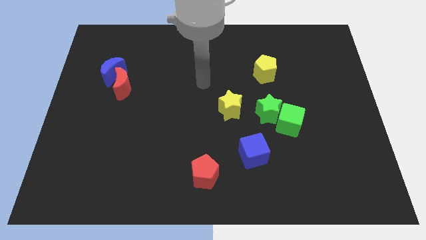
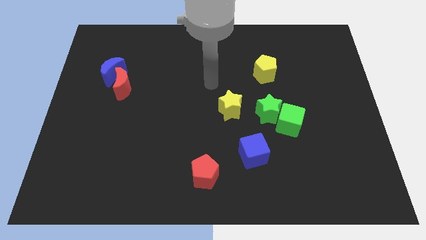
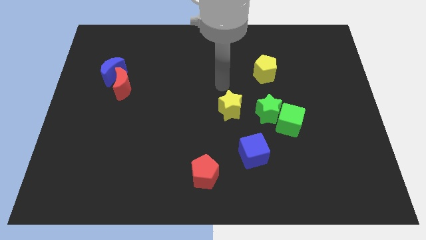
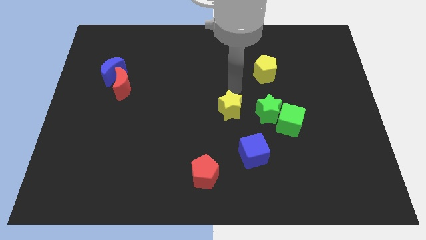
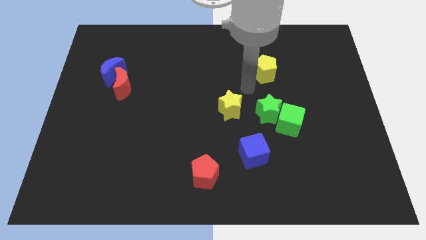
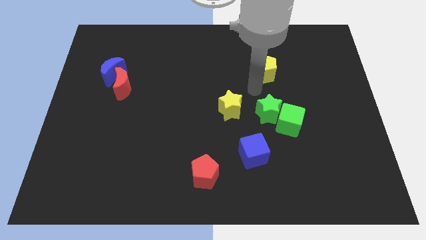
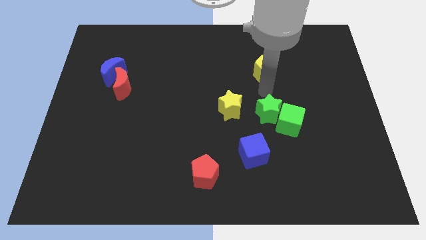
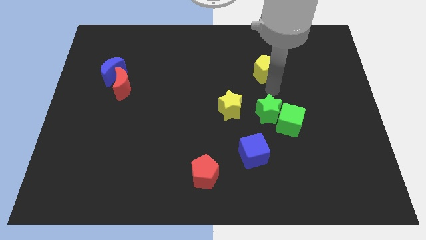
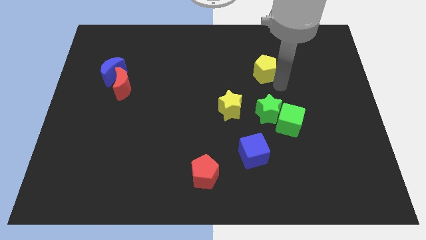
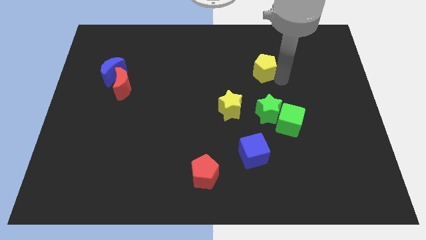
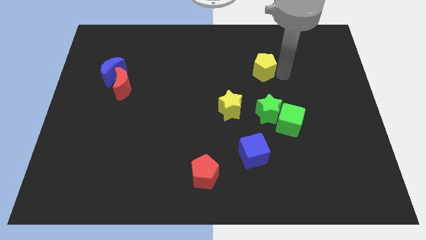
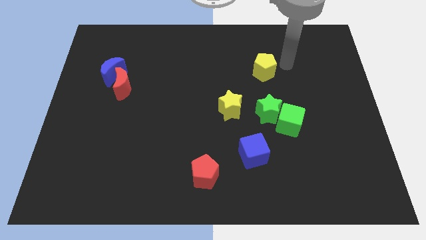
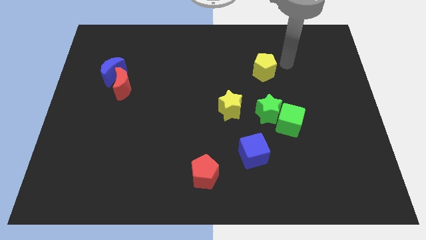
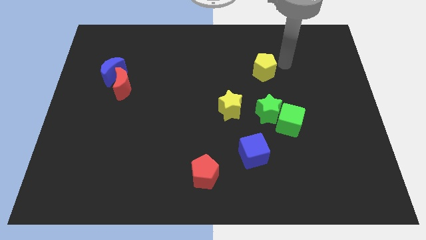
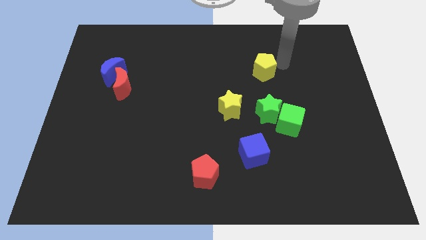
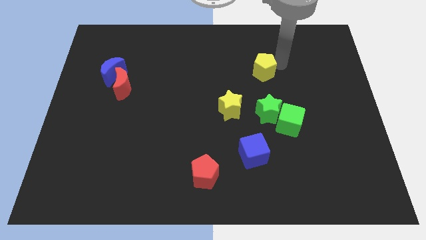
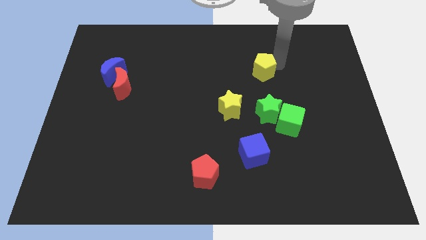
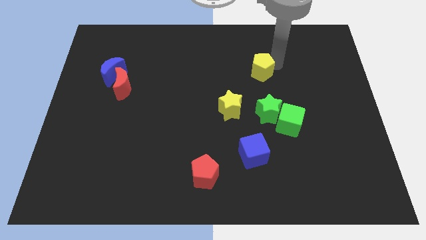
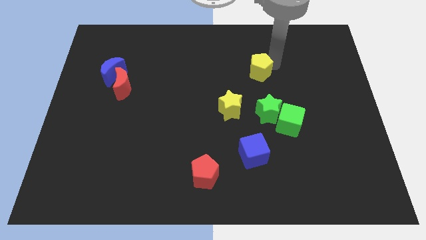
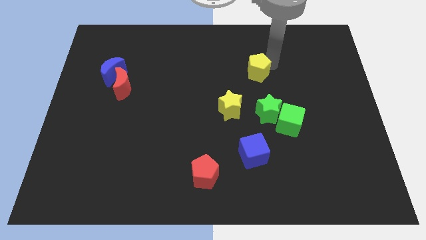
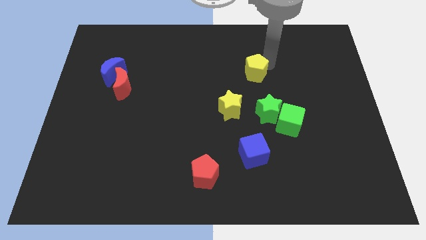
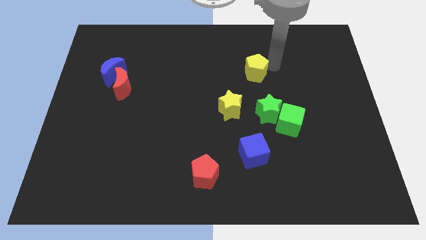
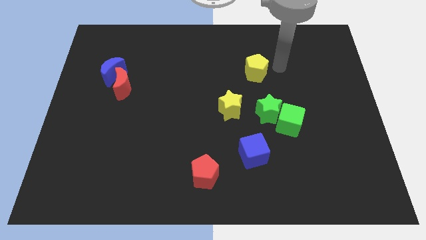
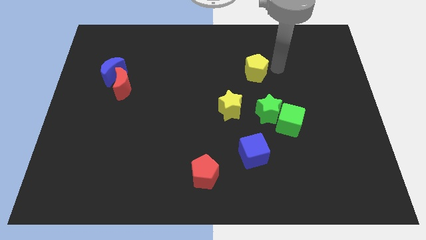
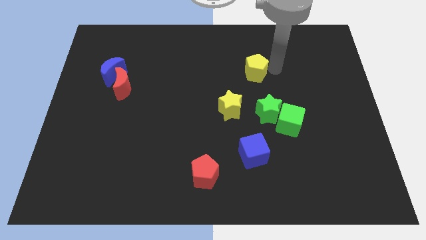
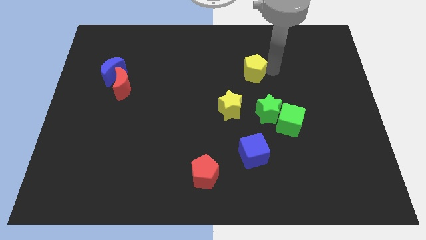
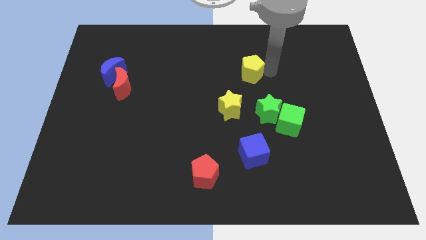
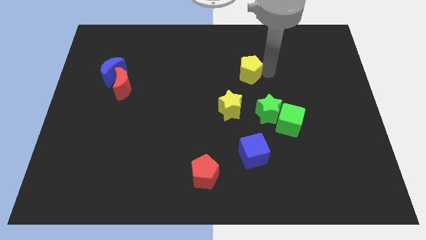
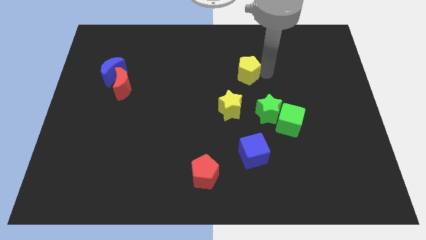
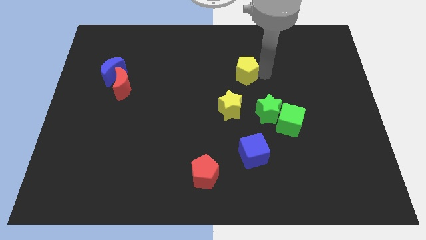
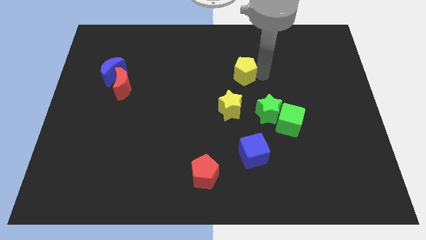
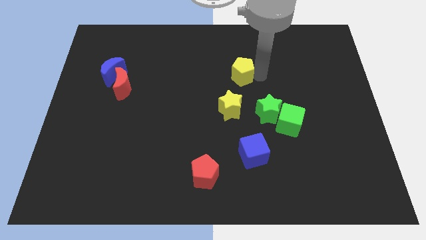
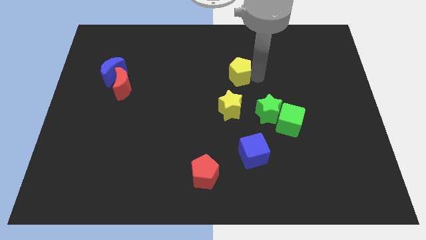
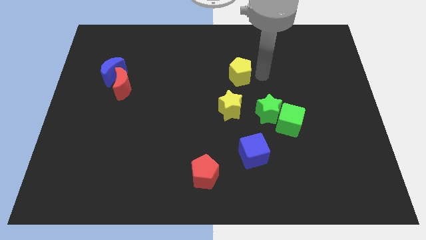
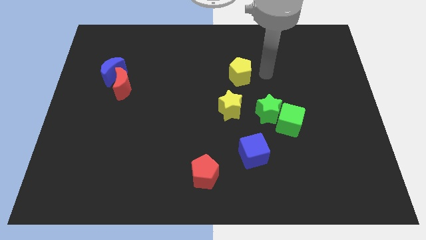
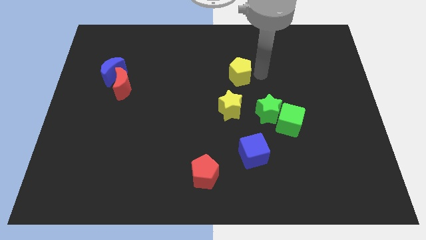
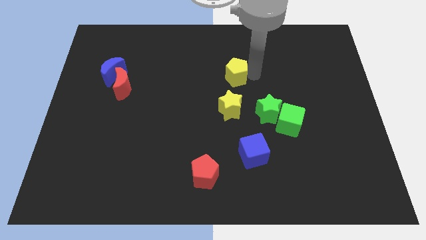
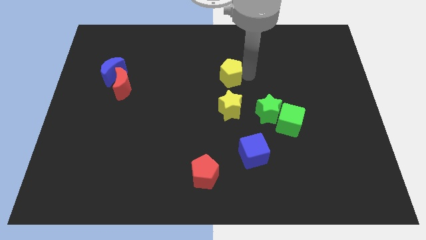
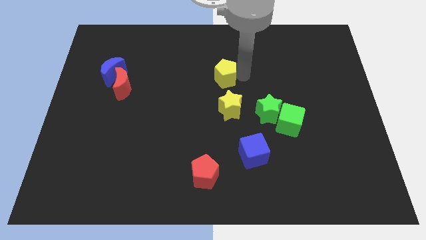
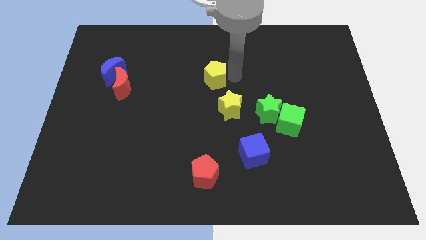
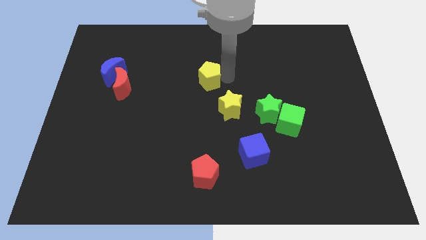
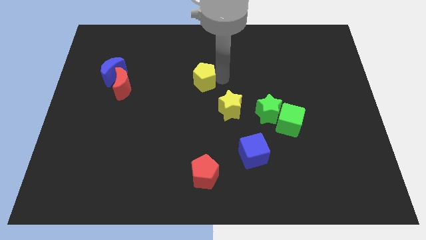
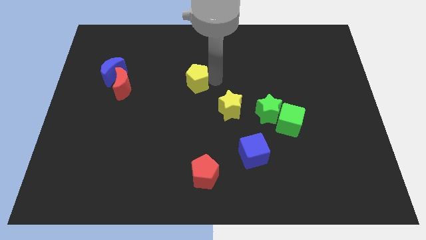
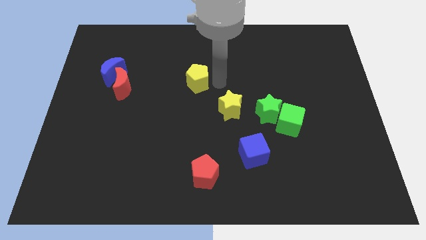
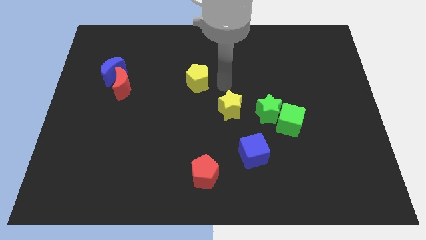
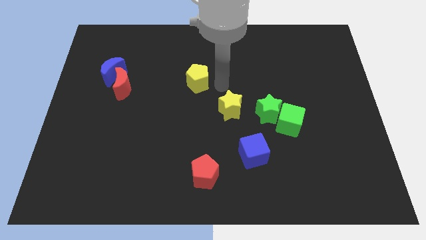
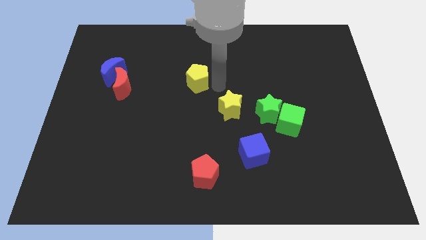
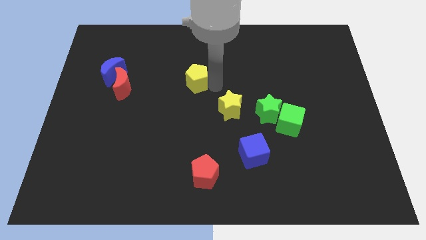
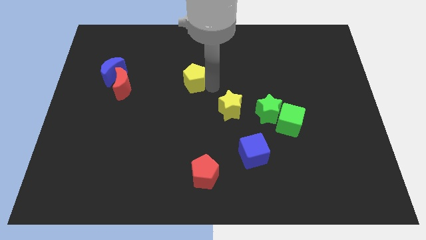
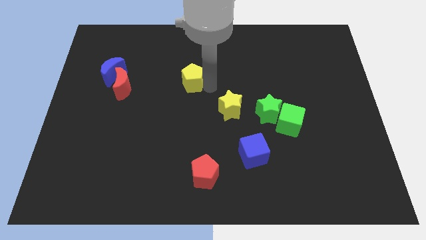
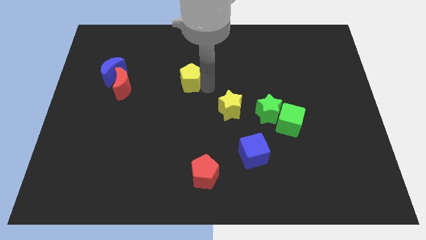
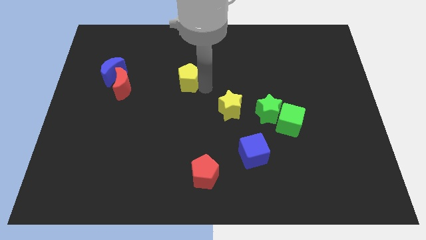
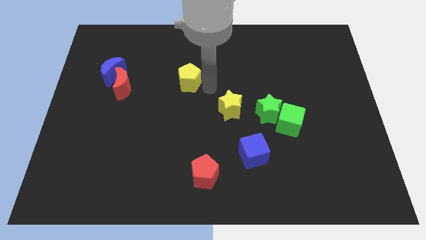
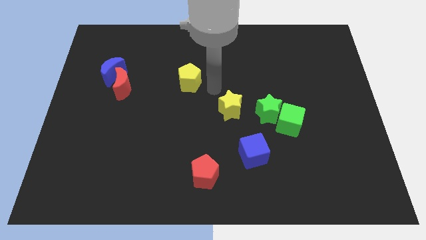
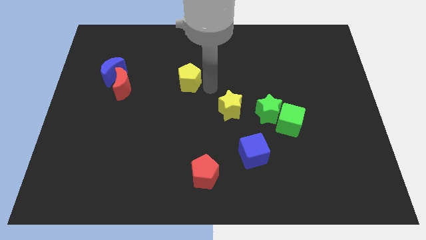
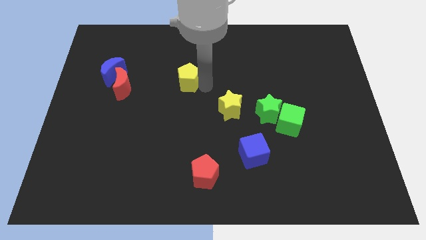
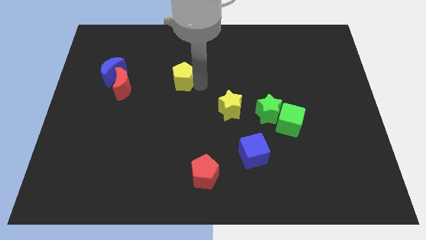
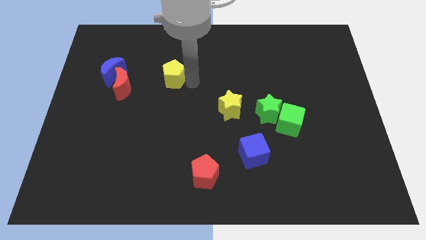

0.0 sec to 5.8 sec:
move the yellow pentagon just right of the blue moon

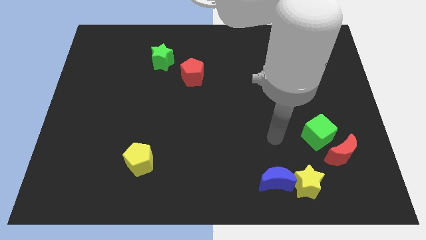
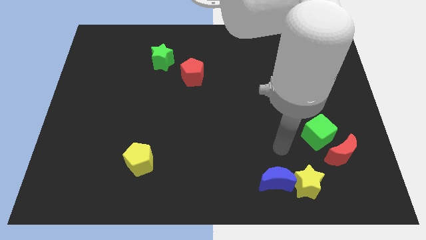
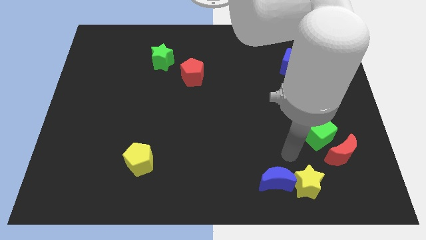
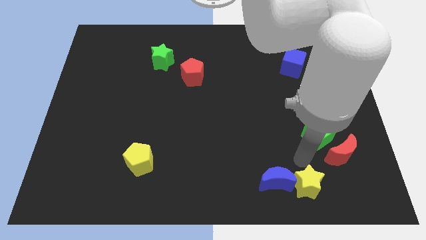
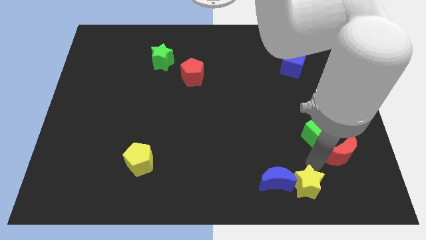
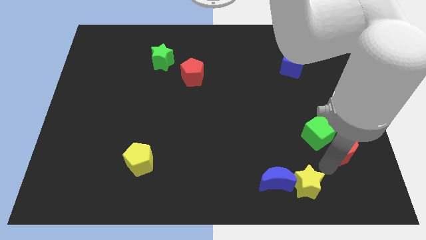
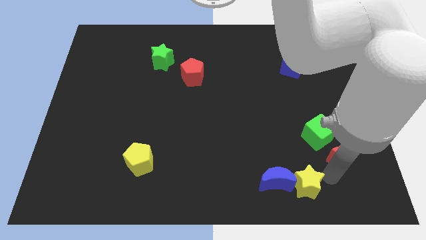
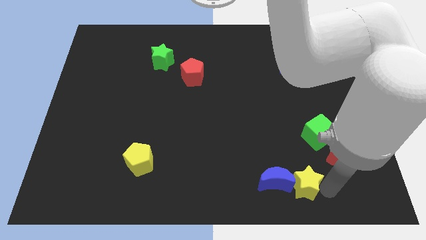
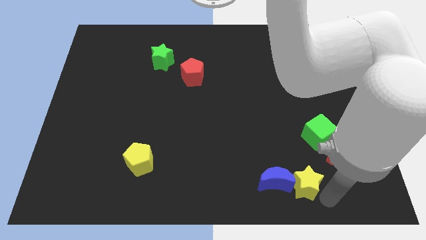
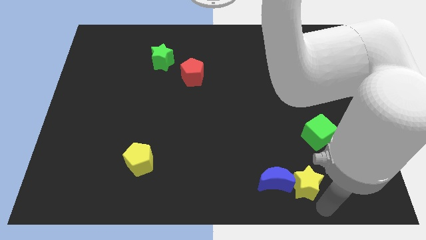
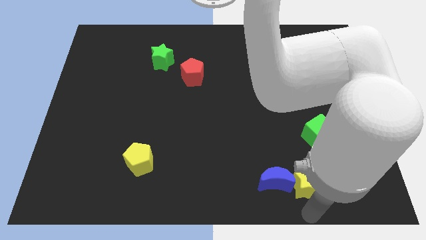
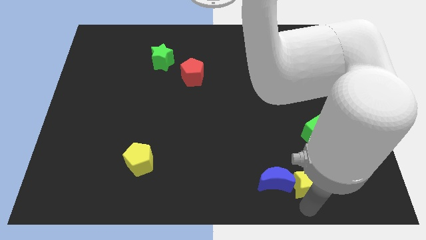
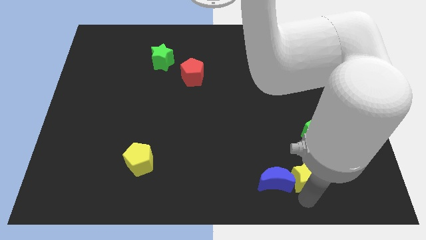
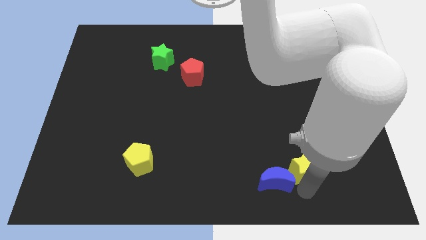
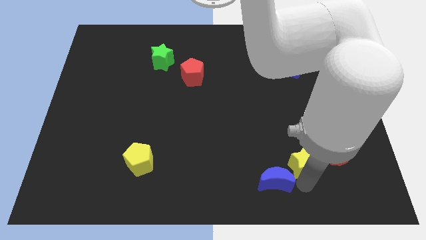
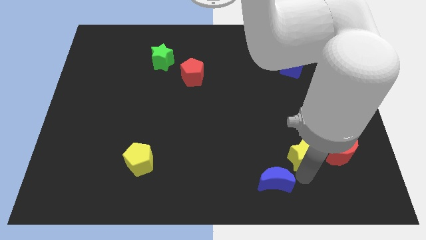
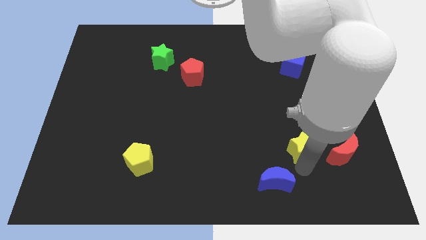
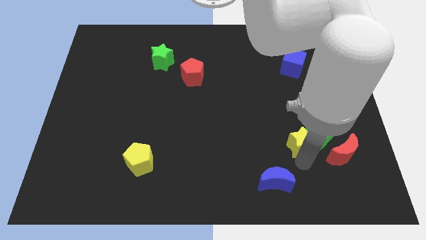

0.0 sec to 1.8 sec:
put the yellow star to the top left of the red moon
